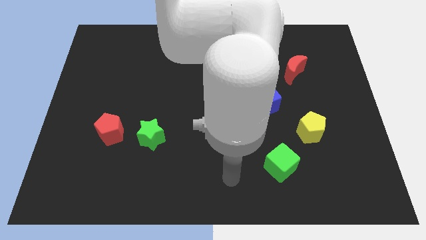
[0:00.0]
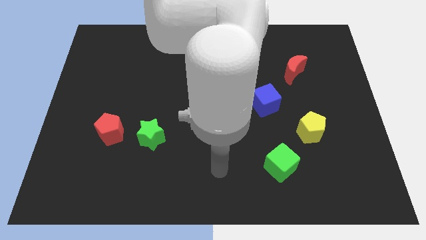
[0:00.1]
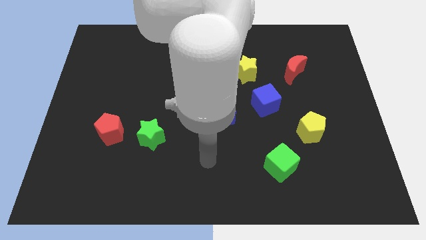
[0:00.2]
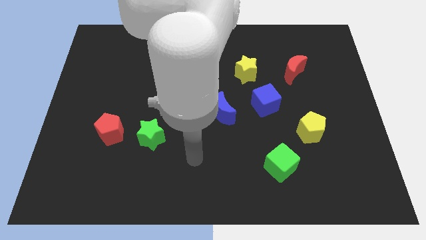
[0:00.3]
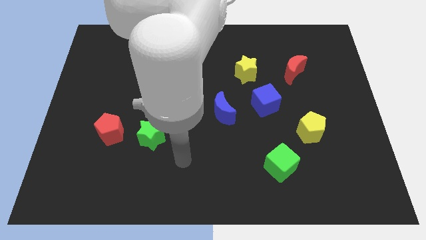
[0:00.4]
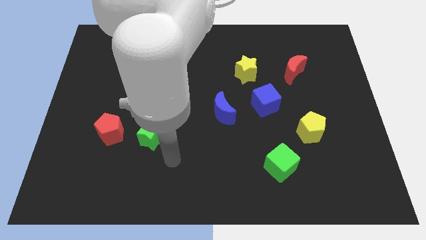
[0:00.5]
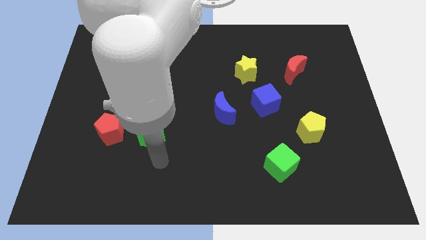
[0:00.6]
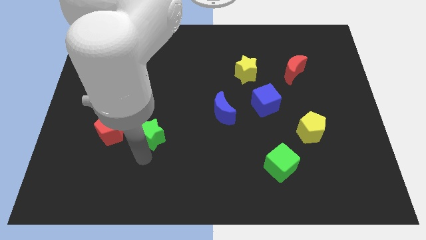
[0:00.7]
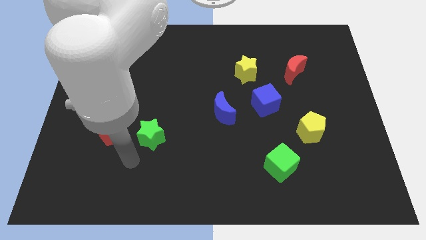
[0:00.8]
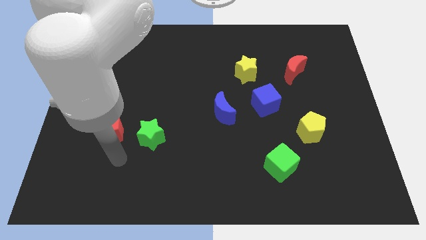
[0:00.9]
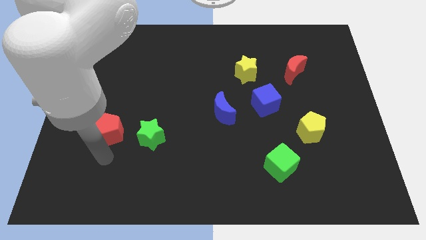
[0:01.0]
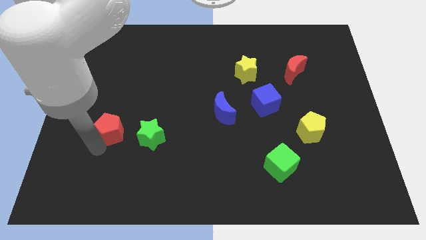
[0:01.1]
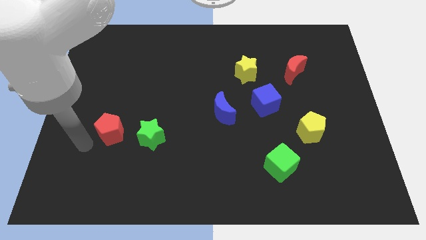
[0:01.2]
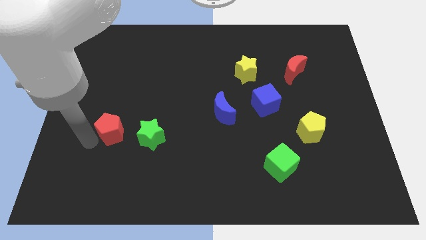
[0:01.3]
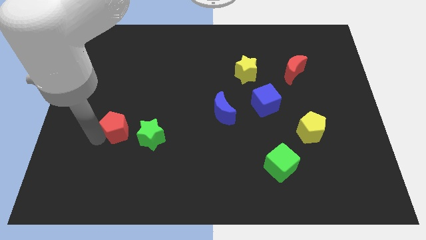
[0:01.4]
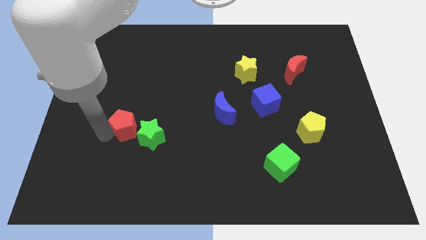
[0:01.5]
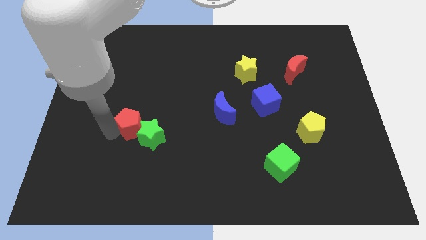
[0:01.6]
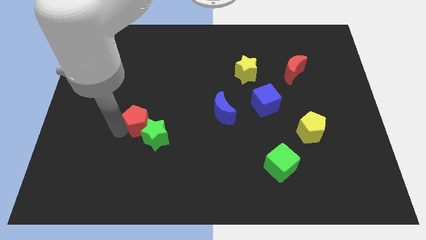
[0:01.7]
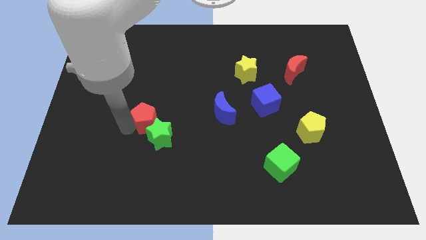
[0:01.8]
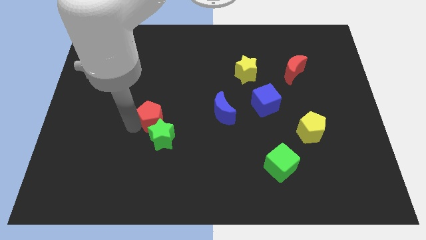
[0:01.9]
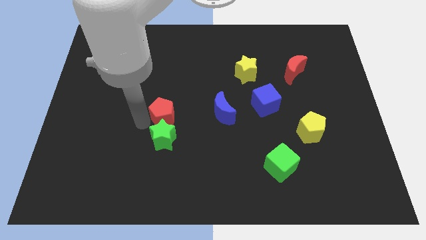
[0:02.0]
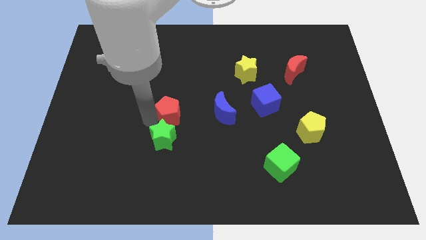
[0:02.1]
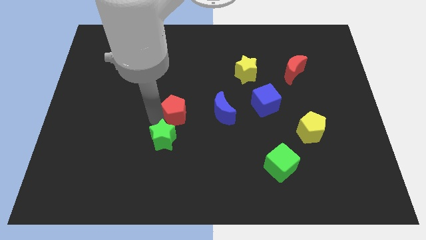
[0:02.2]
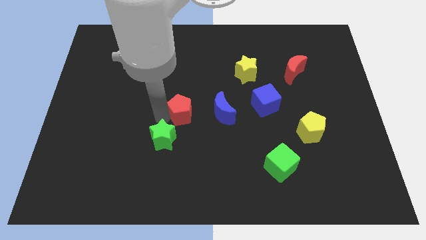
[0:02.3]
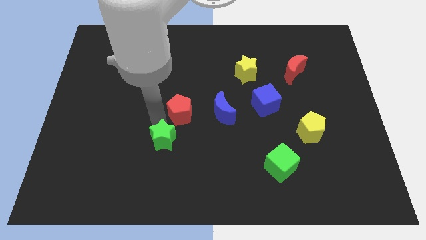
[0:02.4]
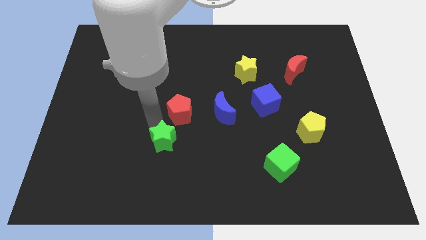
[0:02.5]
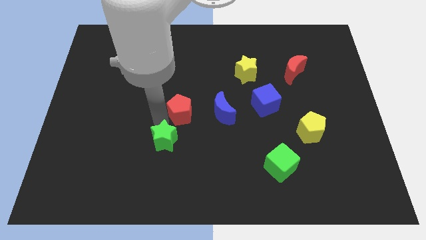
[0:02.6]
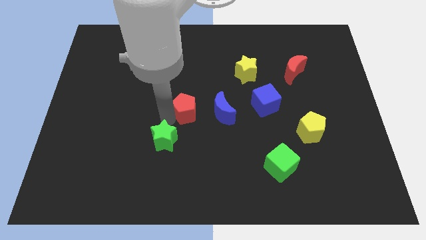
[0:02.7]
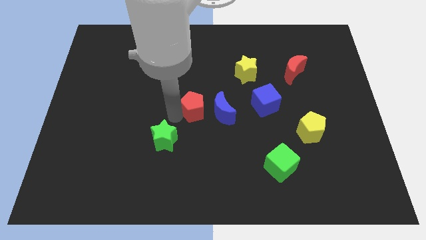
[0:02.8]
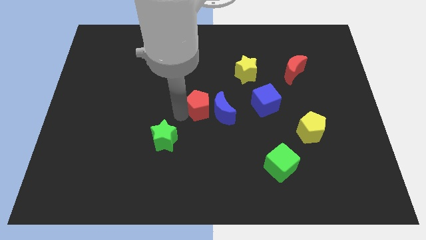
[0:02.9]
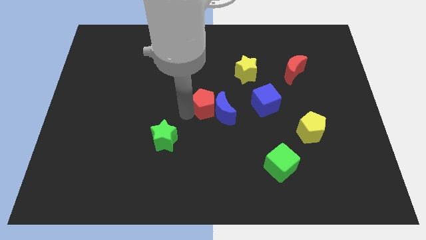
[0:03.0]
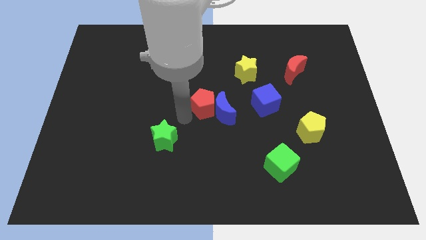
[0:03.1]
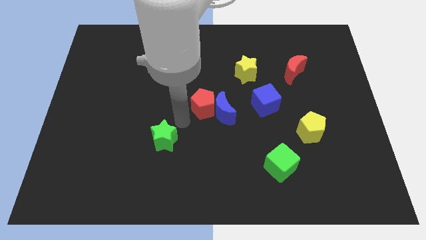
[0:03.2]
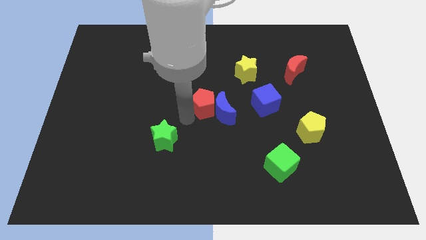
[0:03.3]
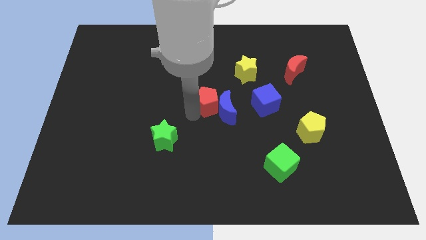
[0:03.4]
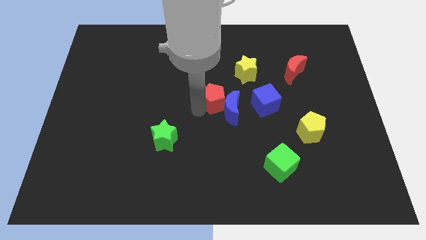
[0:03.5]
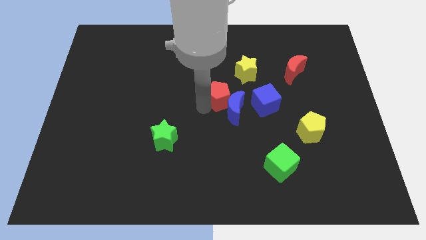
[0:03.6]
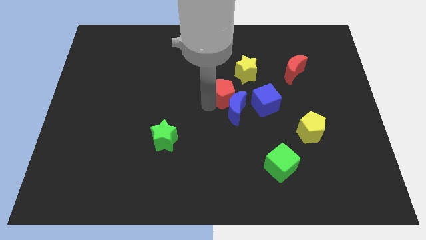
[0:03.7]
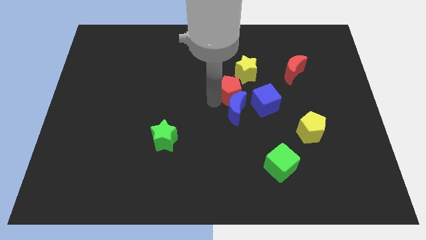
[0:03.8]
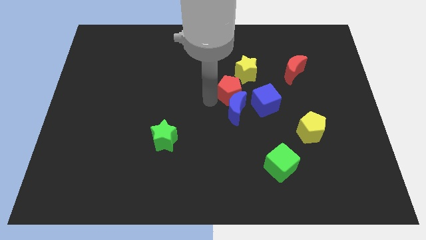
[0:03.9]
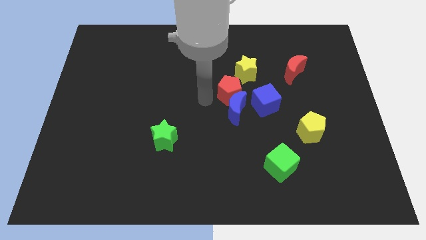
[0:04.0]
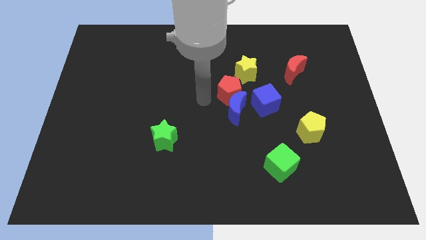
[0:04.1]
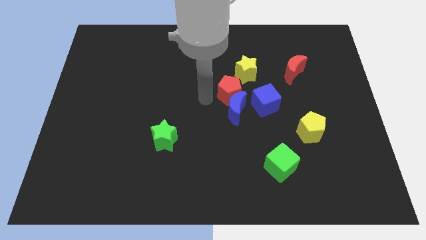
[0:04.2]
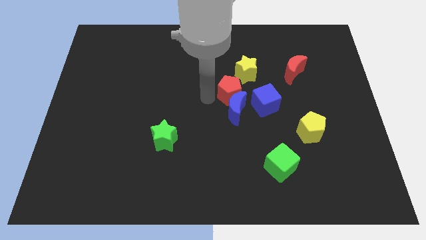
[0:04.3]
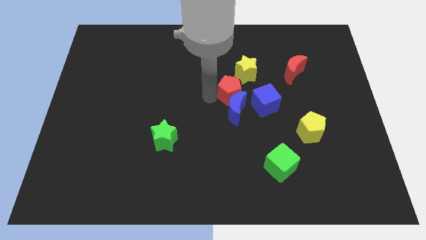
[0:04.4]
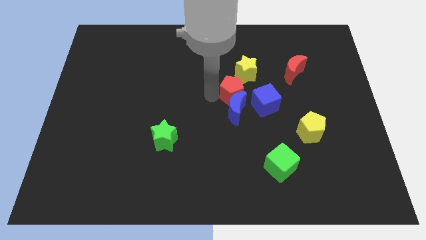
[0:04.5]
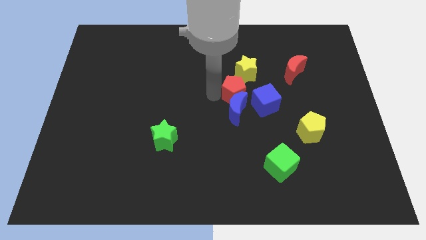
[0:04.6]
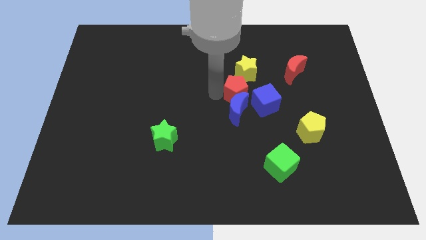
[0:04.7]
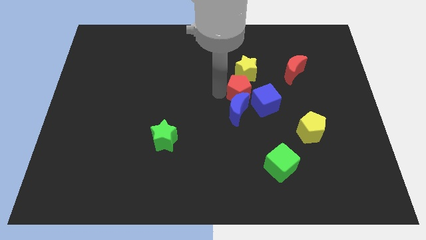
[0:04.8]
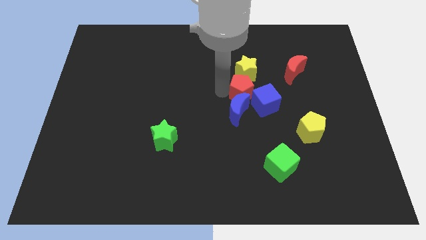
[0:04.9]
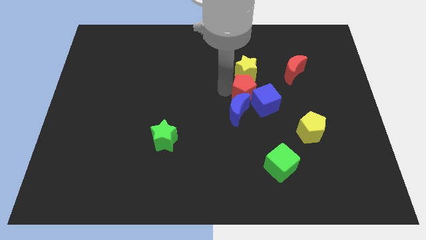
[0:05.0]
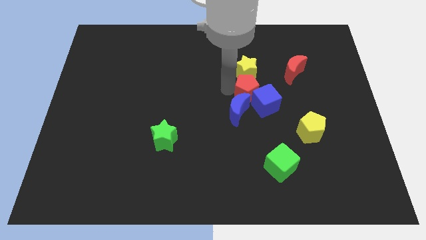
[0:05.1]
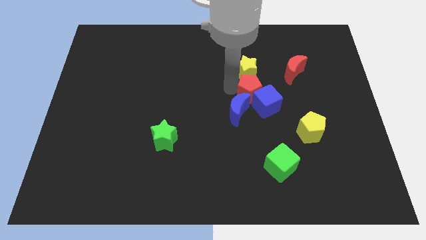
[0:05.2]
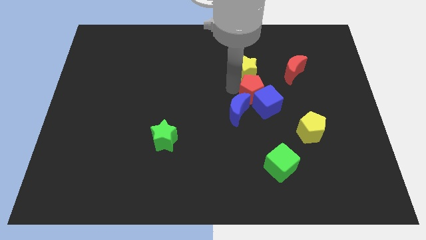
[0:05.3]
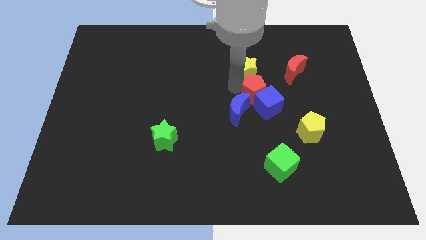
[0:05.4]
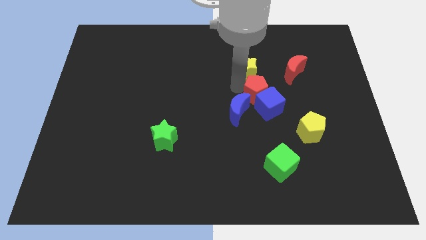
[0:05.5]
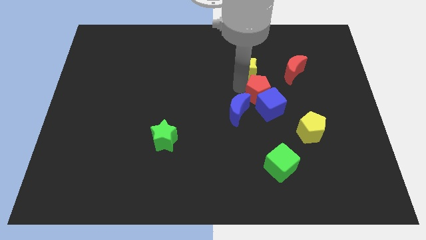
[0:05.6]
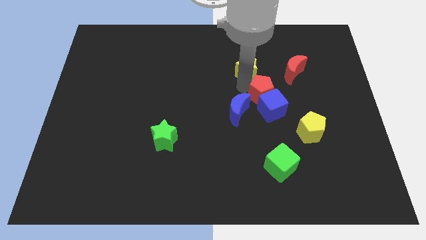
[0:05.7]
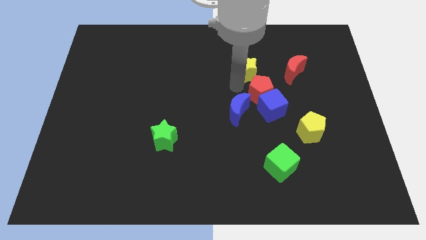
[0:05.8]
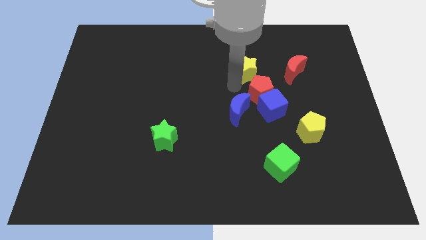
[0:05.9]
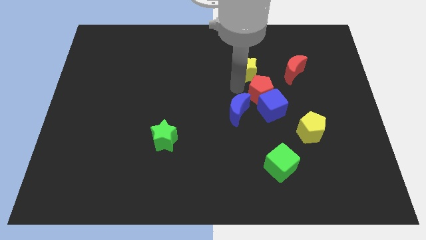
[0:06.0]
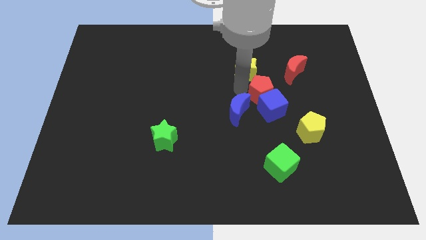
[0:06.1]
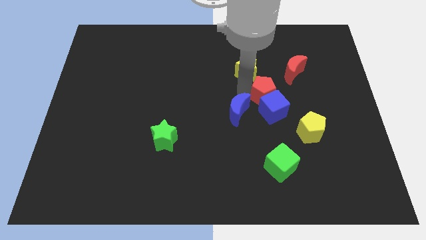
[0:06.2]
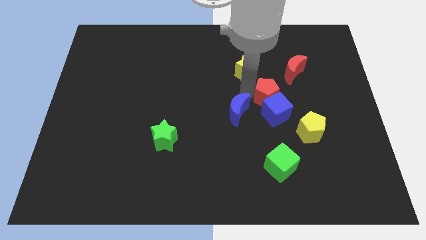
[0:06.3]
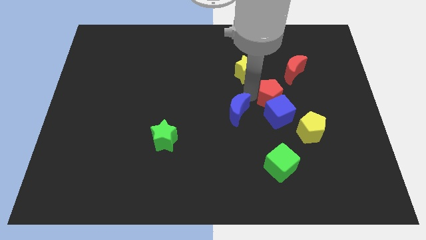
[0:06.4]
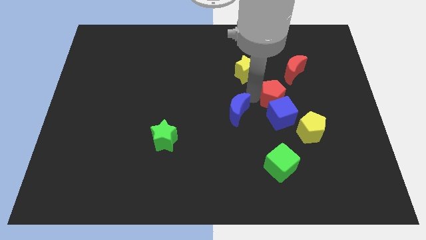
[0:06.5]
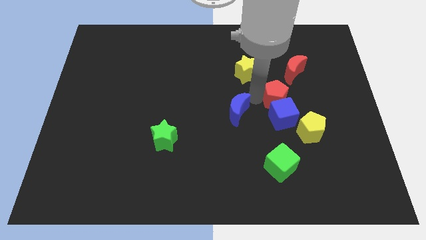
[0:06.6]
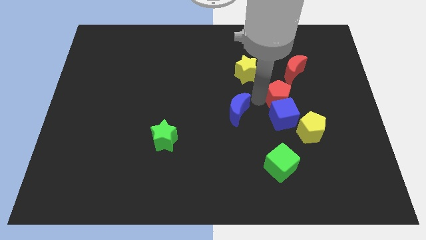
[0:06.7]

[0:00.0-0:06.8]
move the red pentagon to the bottom of the red moon

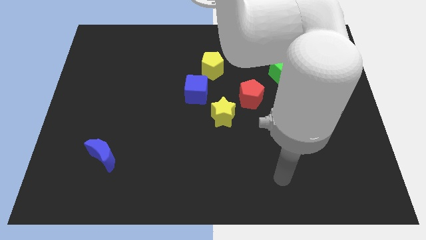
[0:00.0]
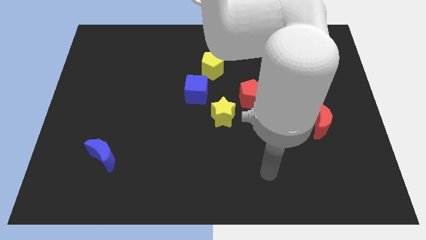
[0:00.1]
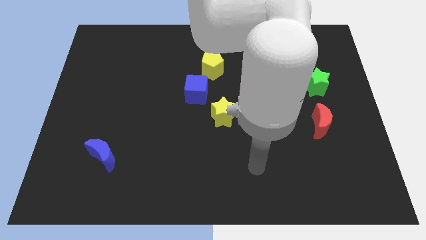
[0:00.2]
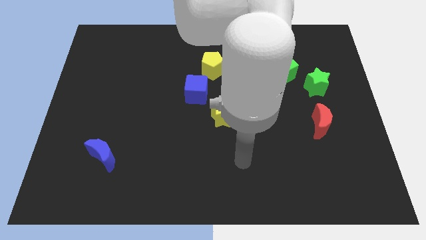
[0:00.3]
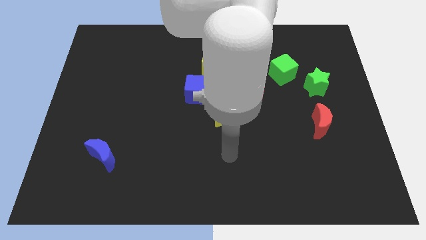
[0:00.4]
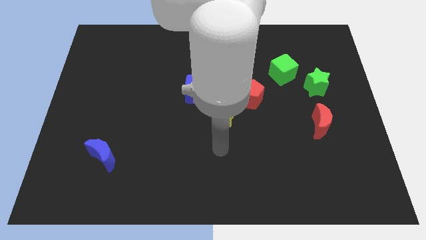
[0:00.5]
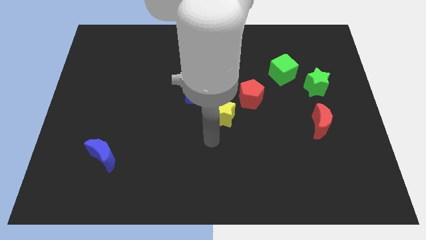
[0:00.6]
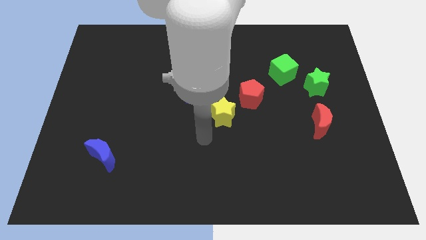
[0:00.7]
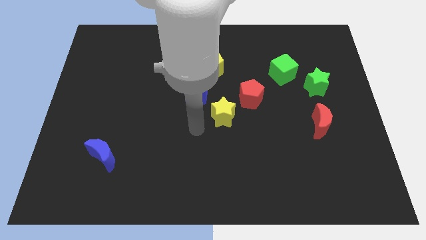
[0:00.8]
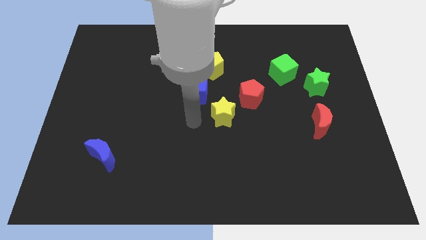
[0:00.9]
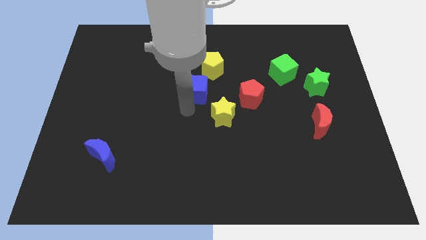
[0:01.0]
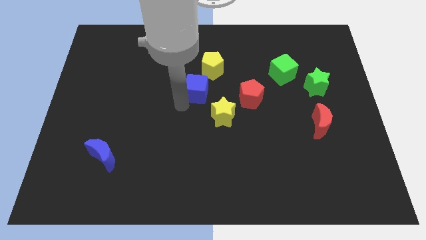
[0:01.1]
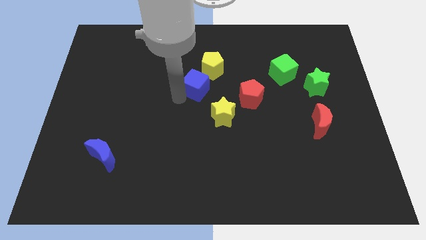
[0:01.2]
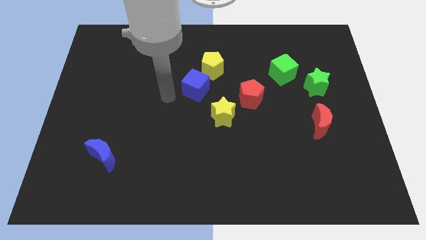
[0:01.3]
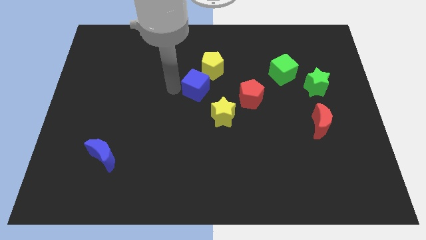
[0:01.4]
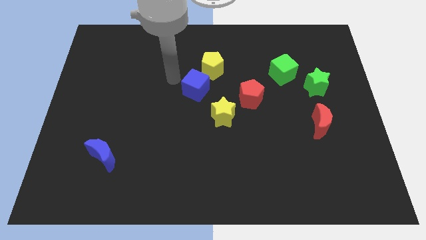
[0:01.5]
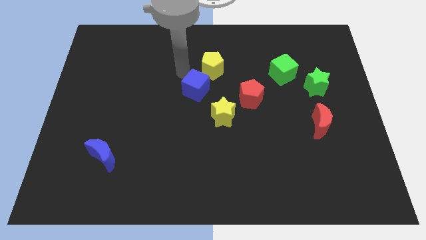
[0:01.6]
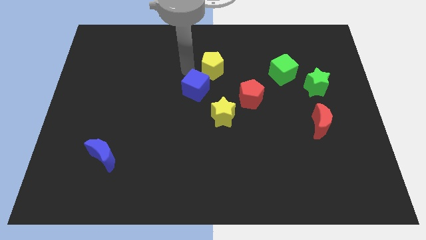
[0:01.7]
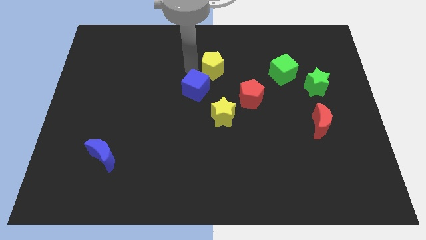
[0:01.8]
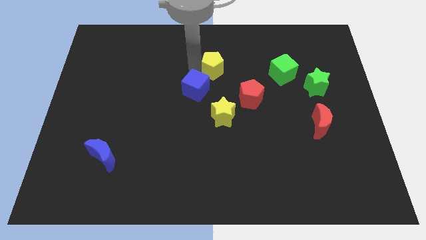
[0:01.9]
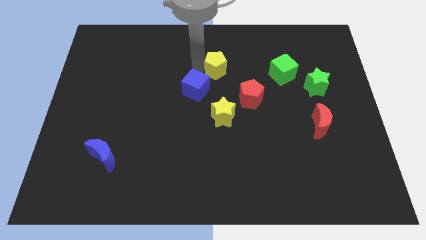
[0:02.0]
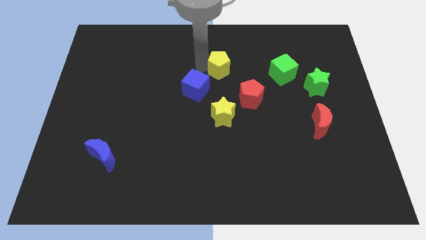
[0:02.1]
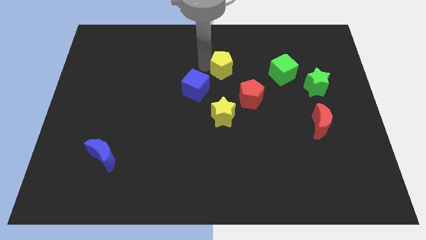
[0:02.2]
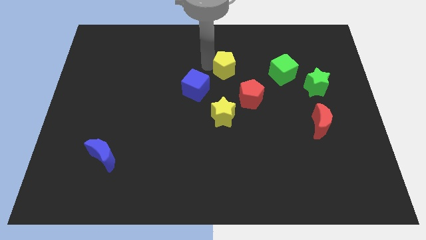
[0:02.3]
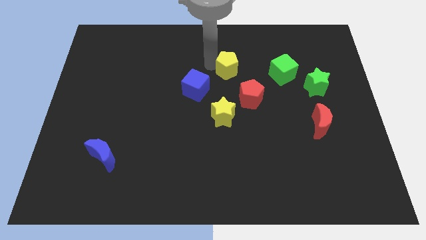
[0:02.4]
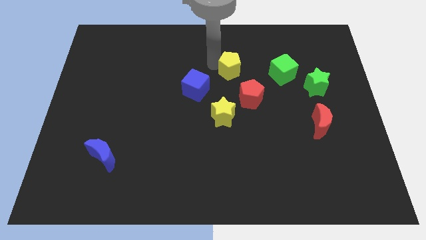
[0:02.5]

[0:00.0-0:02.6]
slide the yellow pentagon to the top side of the red pentagon
